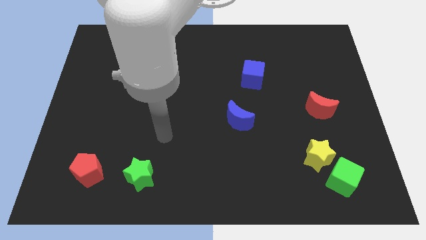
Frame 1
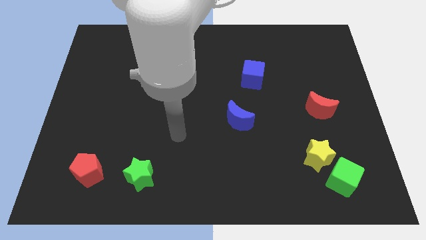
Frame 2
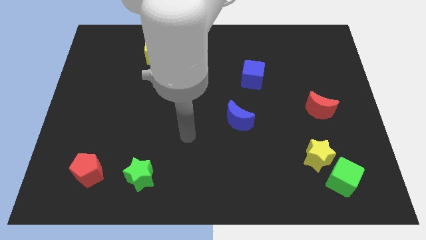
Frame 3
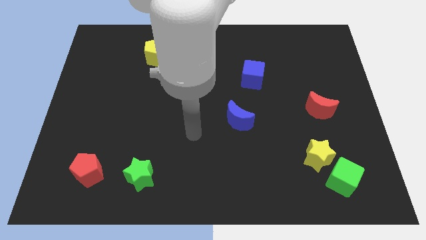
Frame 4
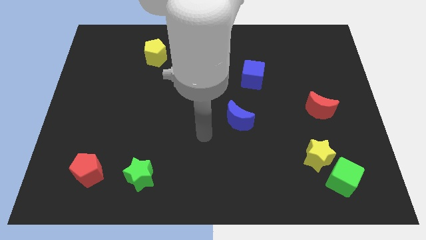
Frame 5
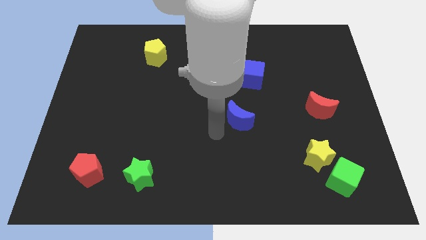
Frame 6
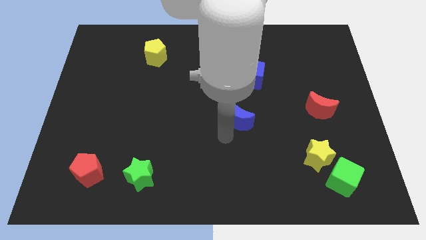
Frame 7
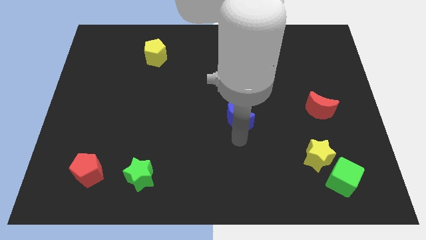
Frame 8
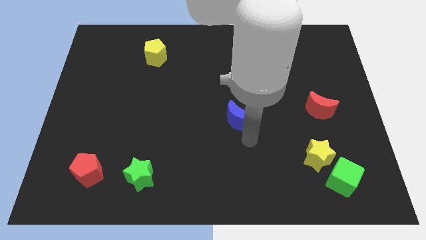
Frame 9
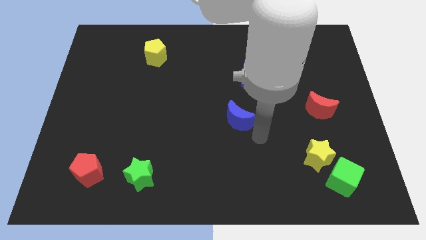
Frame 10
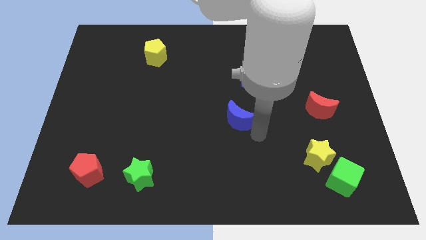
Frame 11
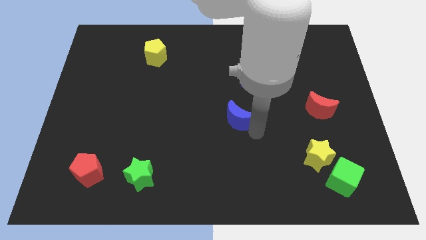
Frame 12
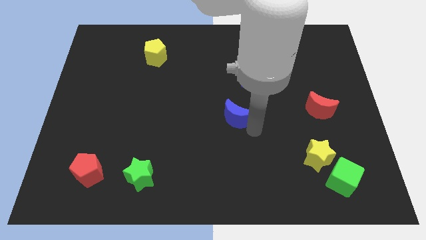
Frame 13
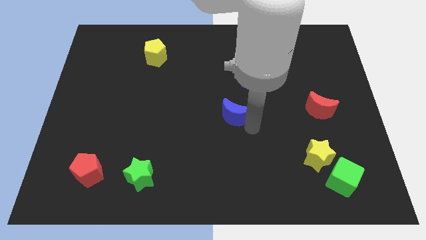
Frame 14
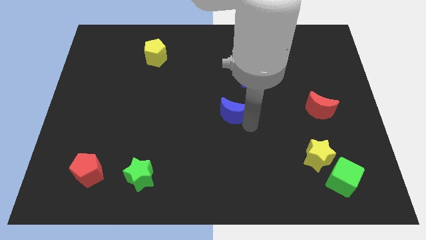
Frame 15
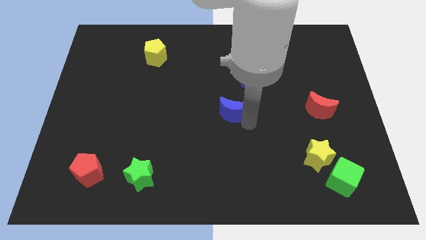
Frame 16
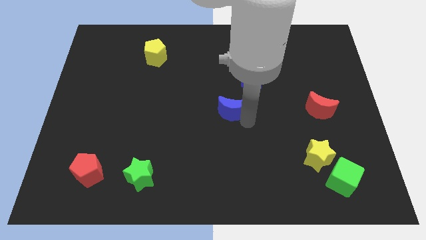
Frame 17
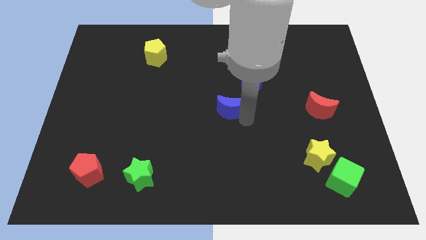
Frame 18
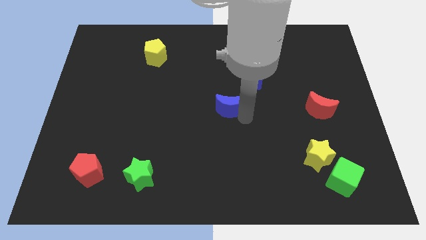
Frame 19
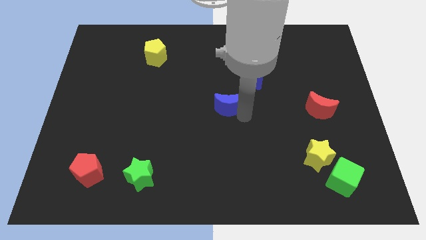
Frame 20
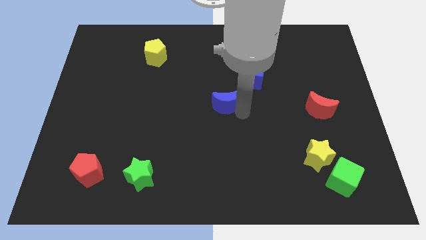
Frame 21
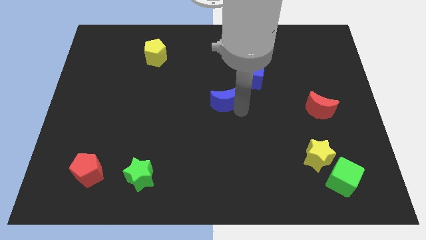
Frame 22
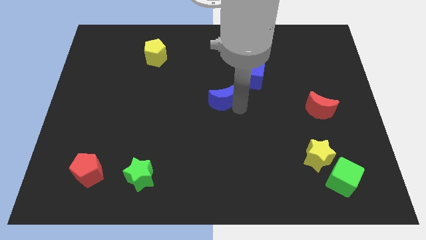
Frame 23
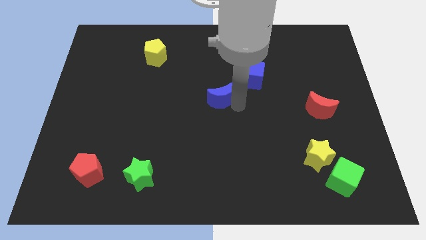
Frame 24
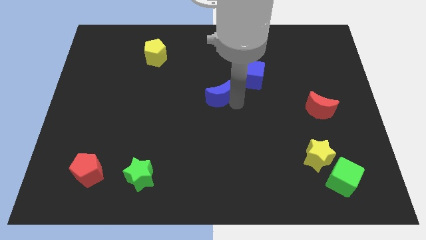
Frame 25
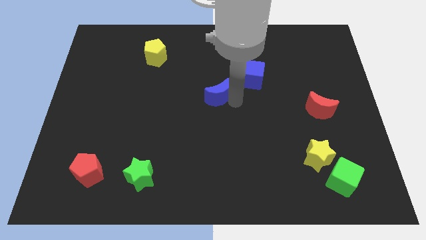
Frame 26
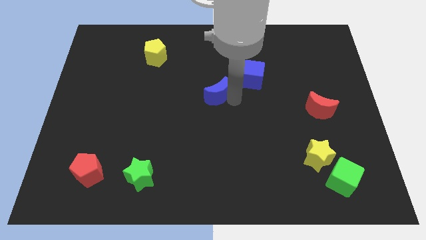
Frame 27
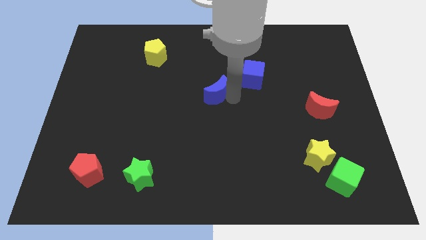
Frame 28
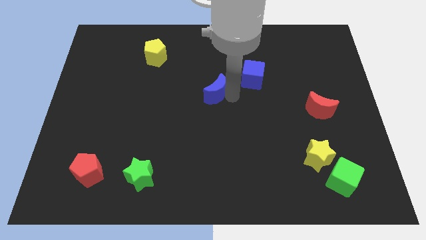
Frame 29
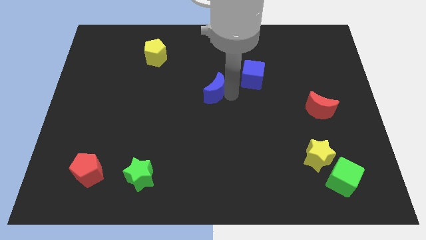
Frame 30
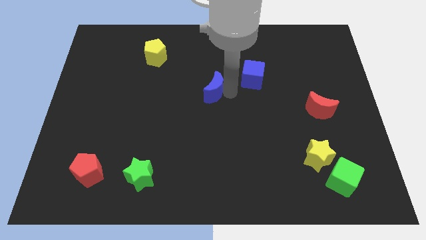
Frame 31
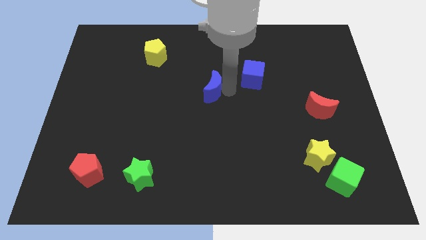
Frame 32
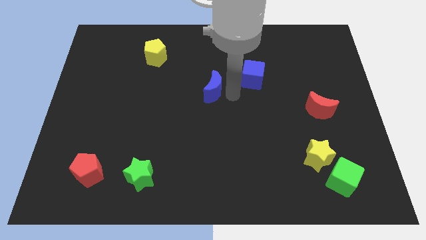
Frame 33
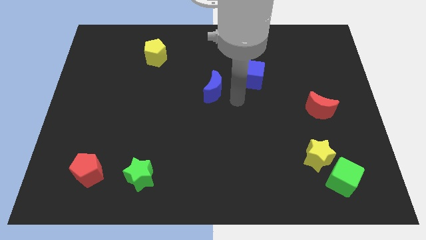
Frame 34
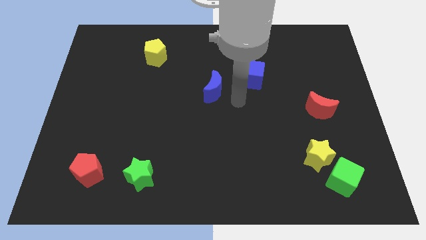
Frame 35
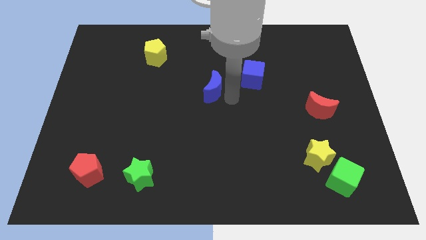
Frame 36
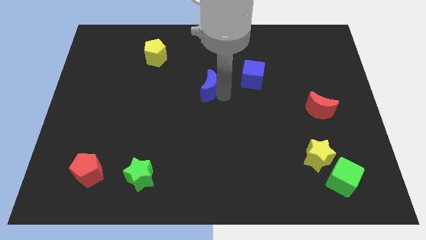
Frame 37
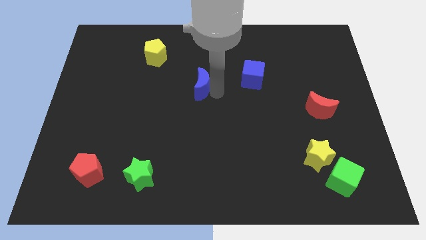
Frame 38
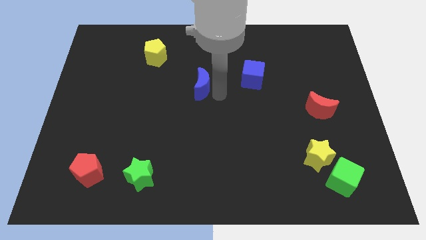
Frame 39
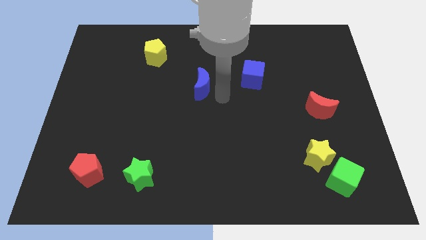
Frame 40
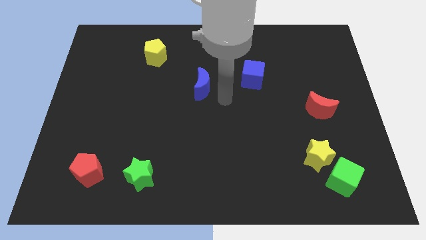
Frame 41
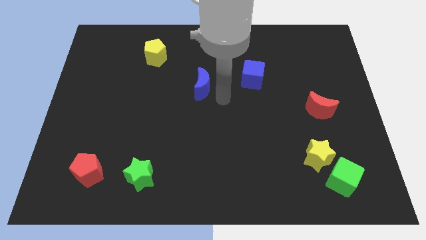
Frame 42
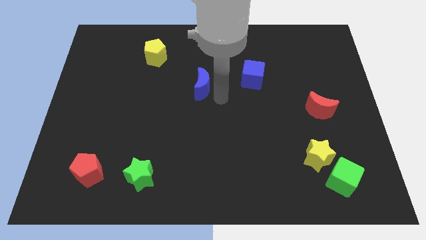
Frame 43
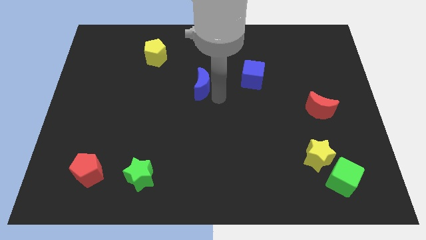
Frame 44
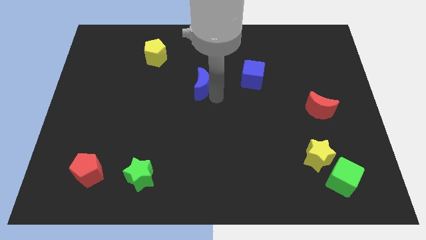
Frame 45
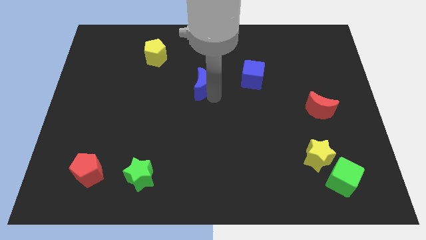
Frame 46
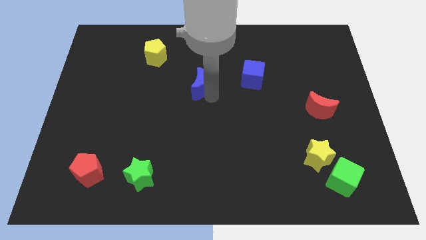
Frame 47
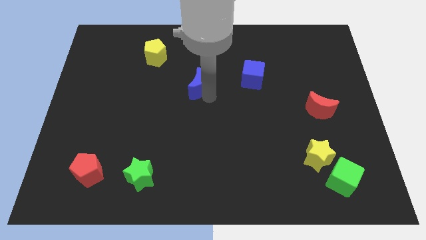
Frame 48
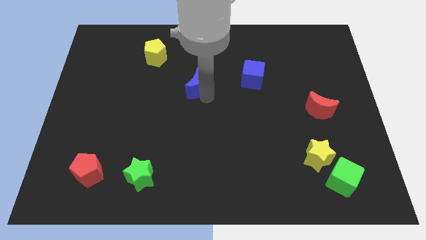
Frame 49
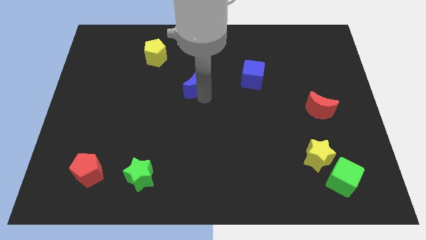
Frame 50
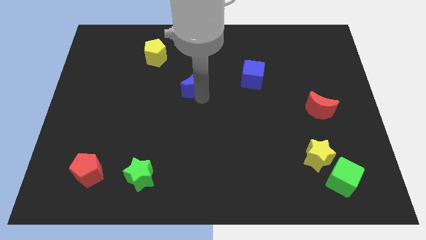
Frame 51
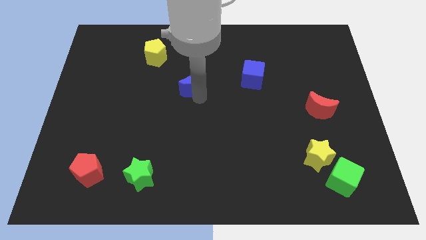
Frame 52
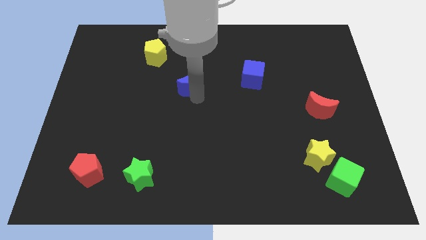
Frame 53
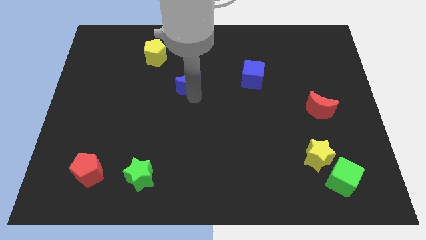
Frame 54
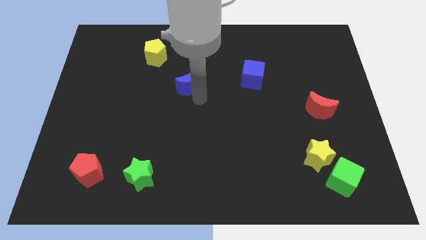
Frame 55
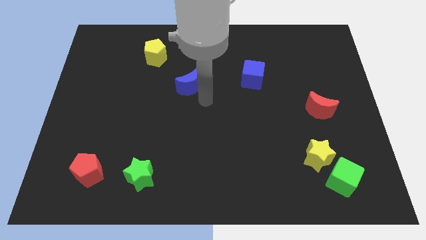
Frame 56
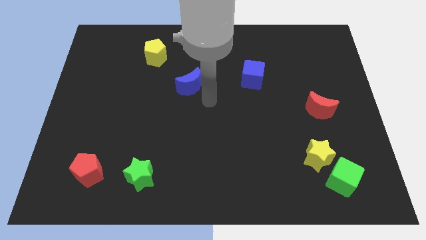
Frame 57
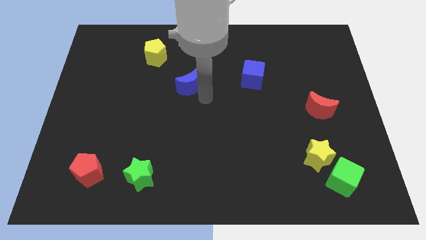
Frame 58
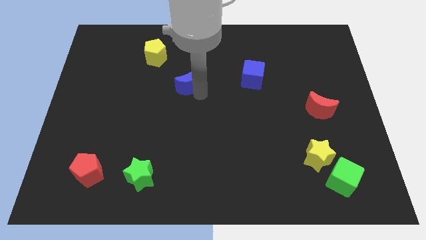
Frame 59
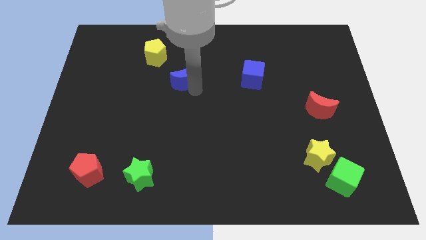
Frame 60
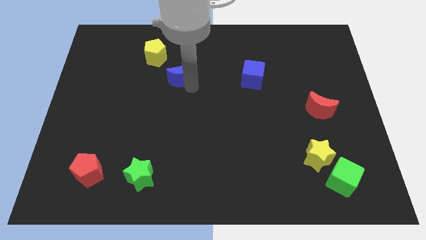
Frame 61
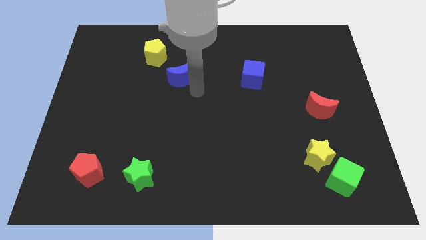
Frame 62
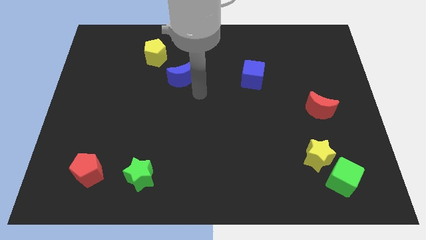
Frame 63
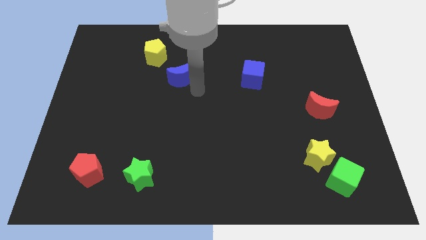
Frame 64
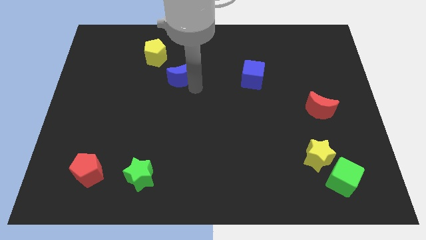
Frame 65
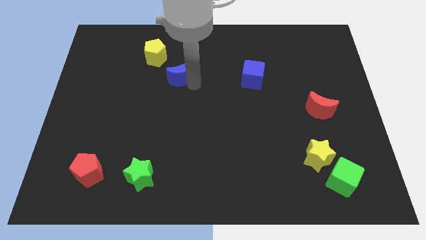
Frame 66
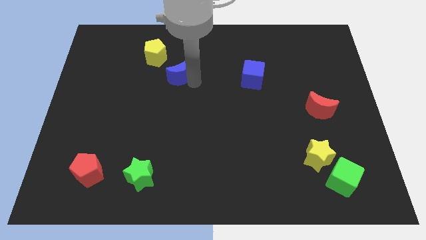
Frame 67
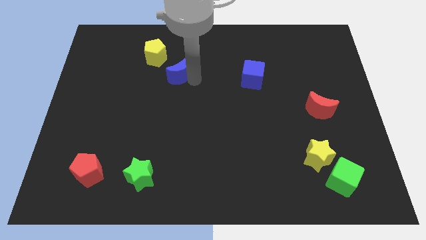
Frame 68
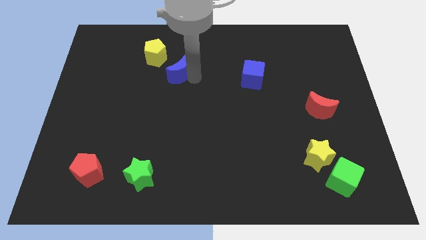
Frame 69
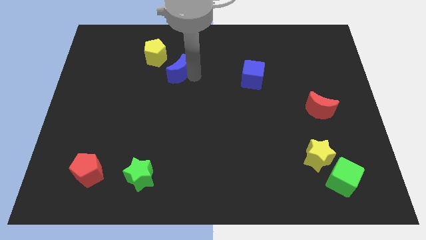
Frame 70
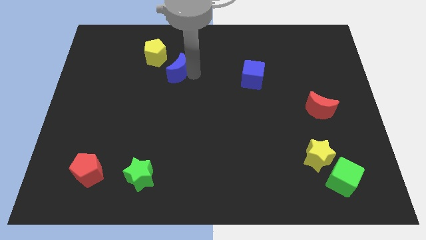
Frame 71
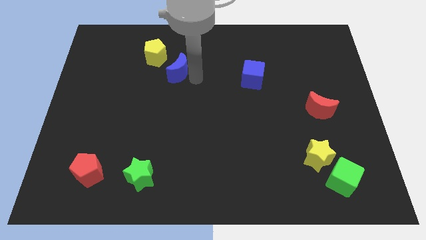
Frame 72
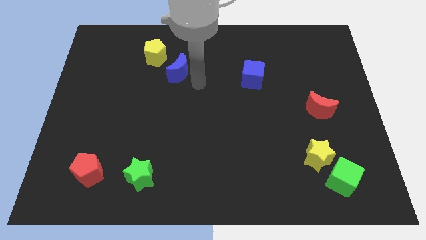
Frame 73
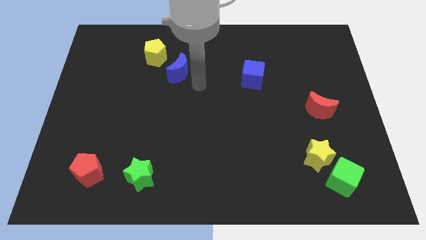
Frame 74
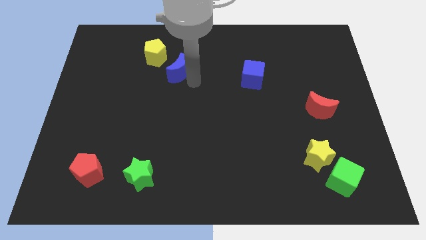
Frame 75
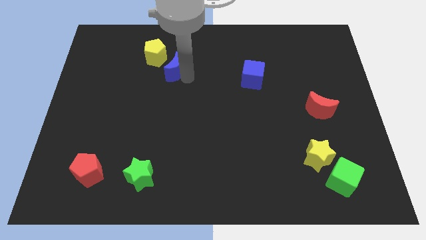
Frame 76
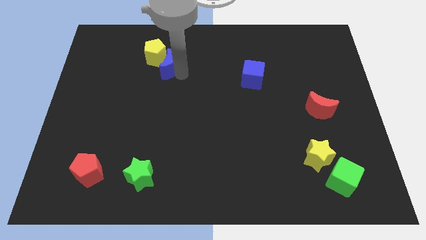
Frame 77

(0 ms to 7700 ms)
slide the blue moon to the yellow pentagon
